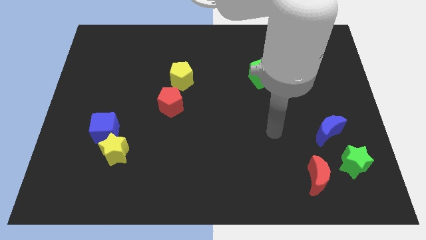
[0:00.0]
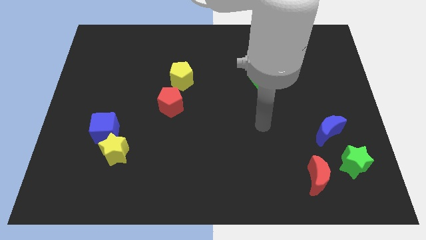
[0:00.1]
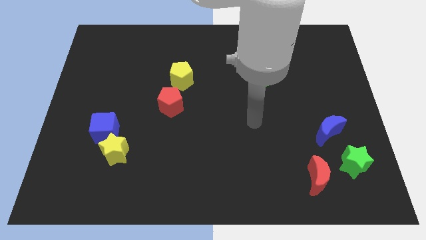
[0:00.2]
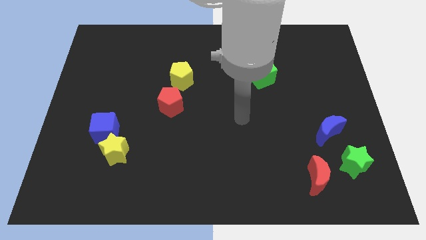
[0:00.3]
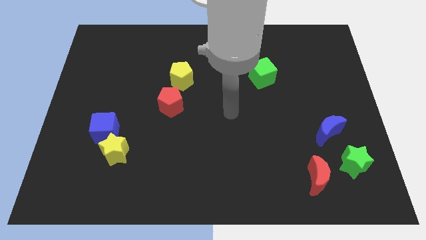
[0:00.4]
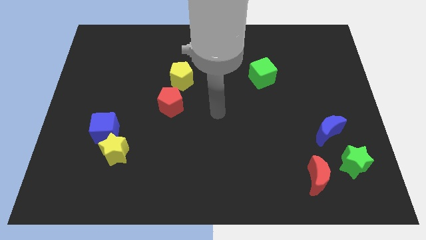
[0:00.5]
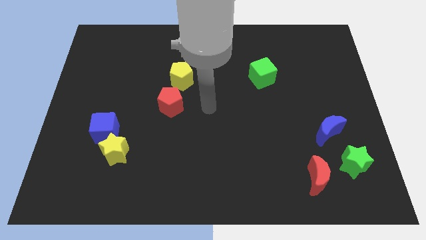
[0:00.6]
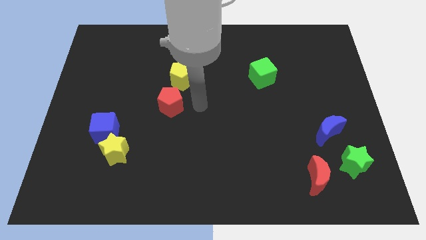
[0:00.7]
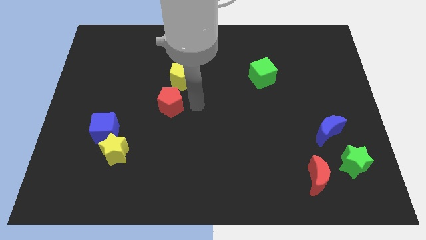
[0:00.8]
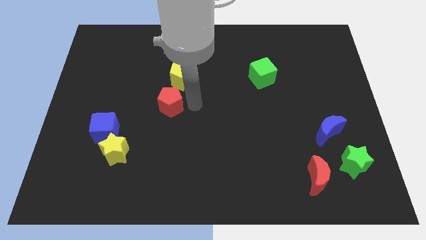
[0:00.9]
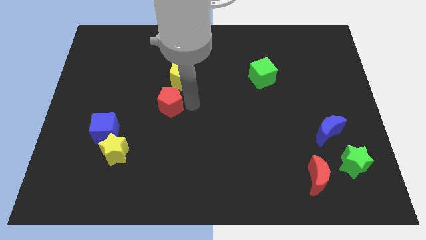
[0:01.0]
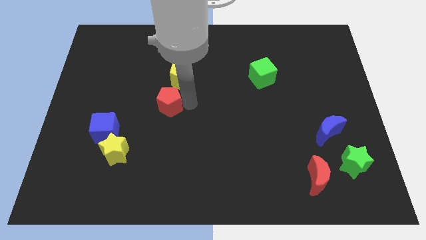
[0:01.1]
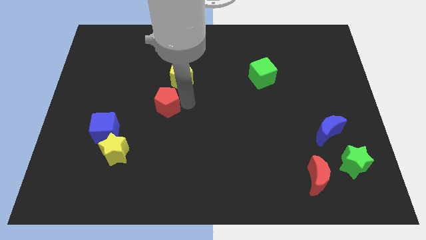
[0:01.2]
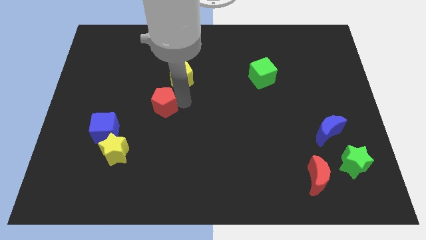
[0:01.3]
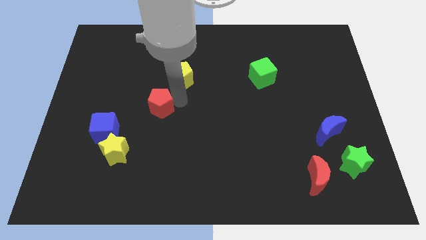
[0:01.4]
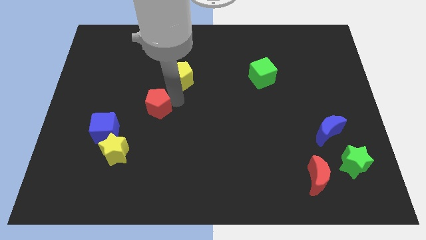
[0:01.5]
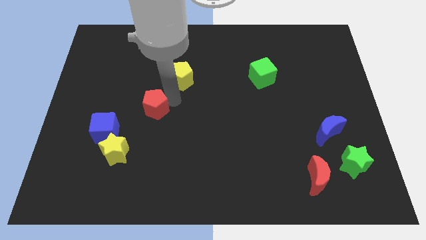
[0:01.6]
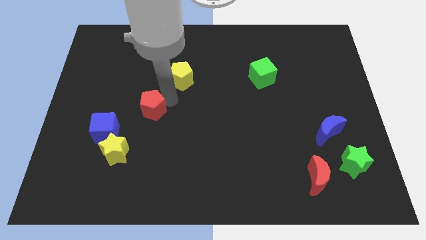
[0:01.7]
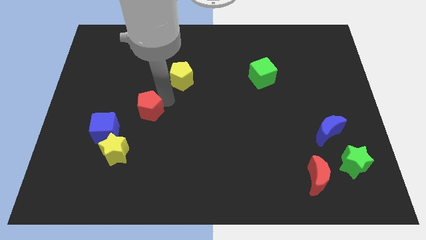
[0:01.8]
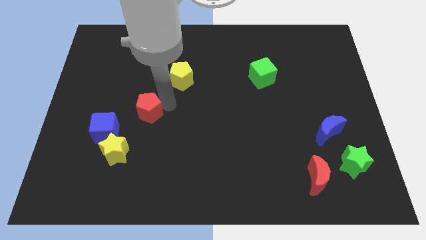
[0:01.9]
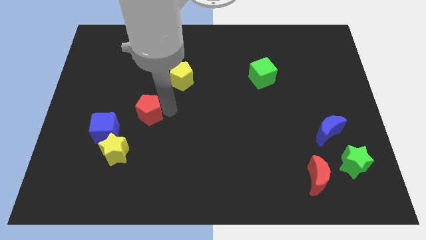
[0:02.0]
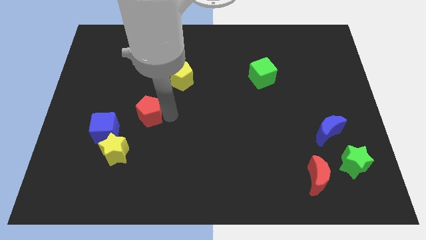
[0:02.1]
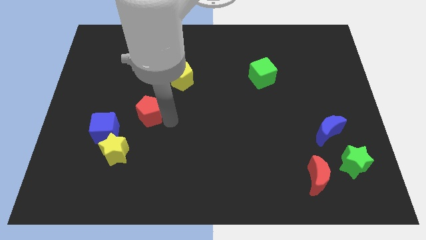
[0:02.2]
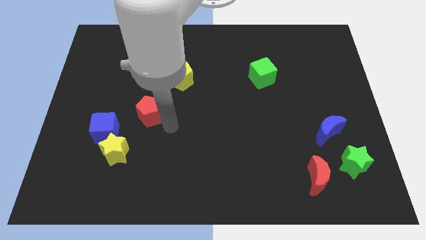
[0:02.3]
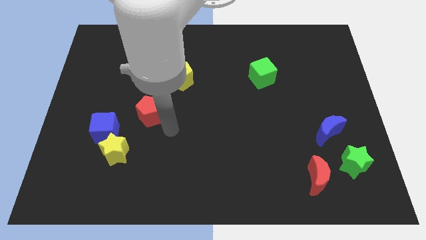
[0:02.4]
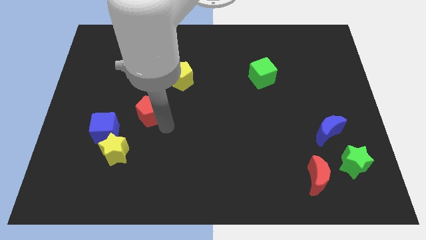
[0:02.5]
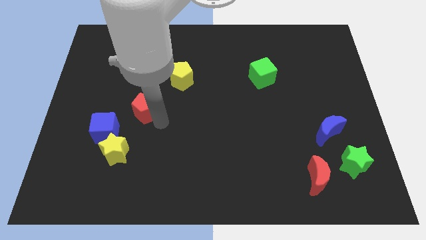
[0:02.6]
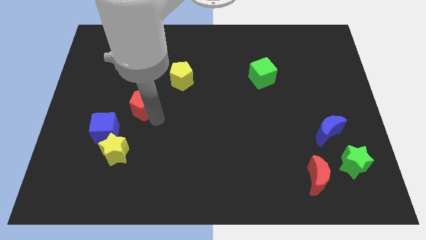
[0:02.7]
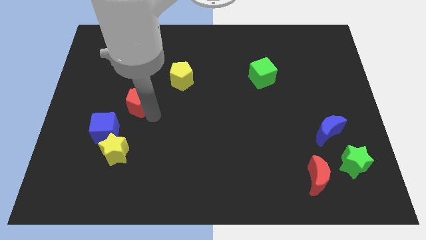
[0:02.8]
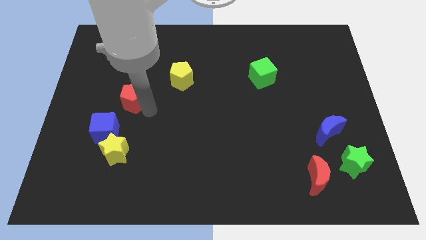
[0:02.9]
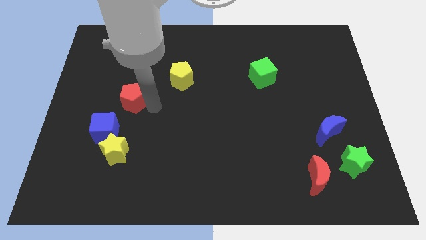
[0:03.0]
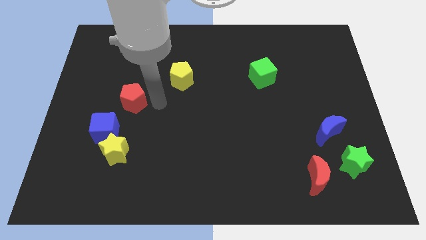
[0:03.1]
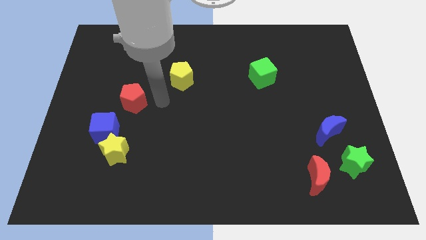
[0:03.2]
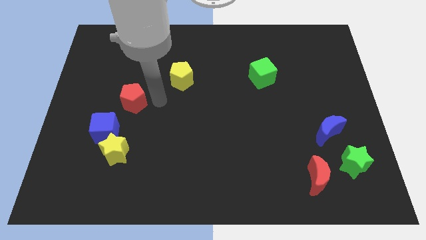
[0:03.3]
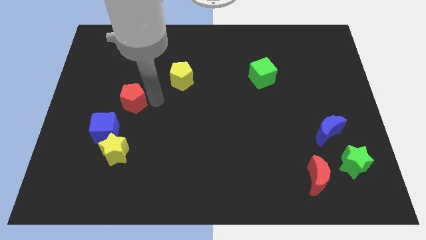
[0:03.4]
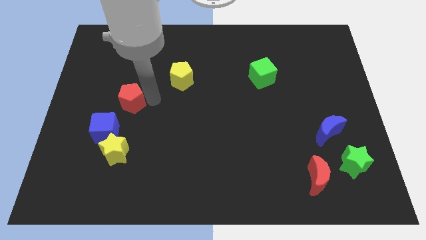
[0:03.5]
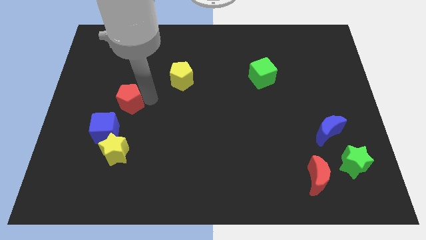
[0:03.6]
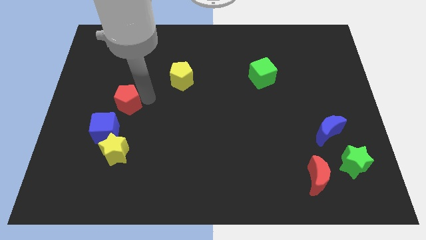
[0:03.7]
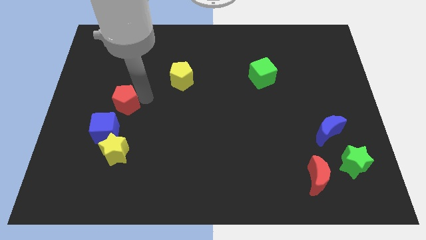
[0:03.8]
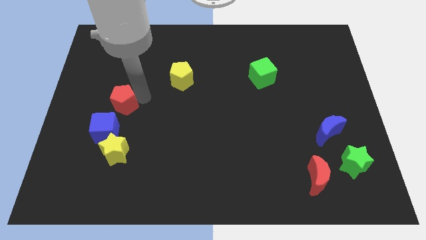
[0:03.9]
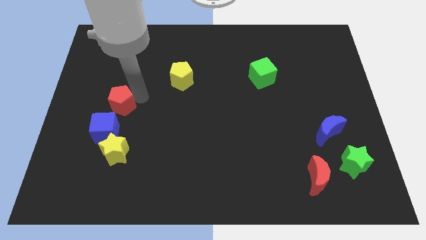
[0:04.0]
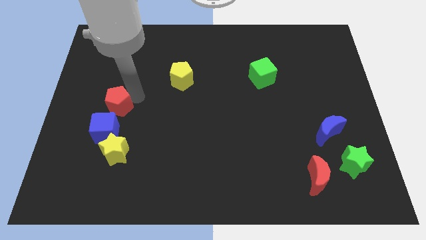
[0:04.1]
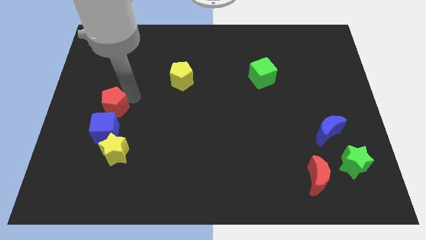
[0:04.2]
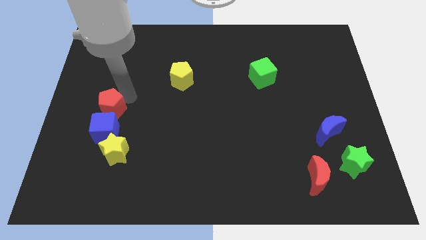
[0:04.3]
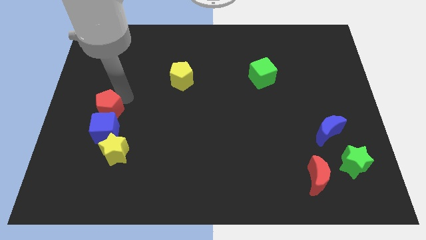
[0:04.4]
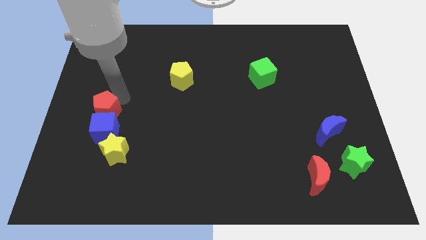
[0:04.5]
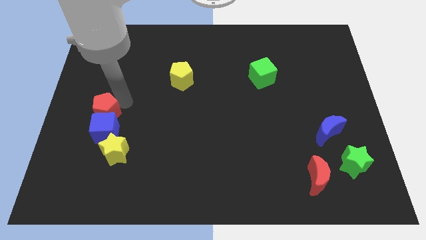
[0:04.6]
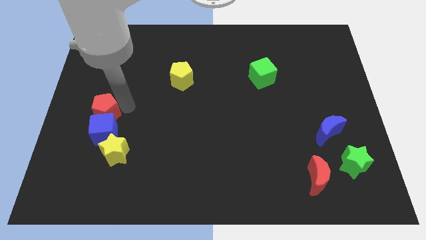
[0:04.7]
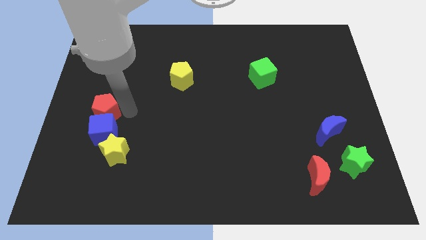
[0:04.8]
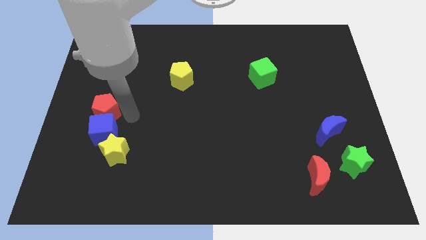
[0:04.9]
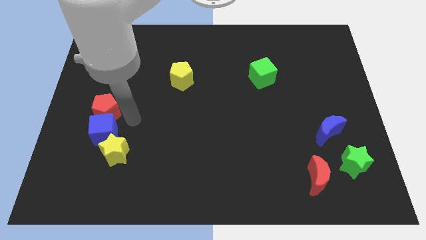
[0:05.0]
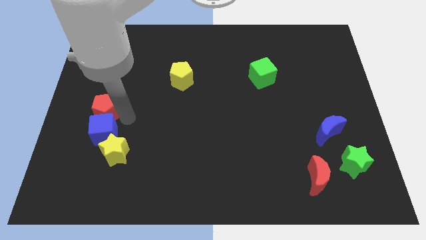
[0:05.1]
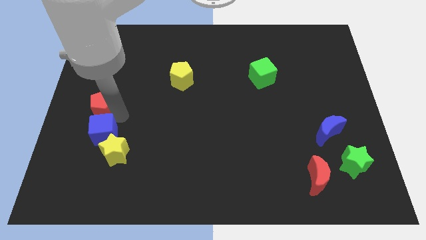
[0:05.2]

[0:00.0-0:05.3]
push the red pentagon to the center left
